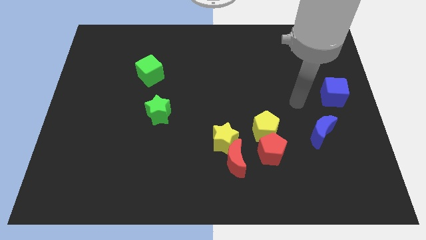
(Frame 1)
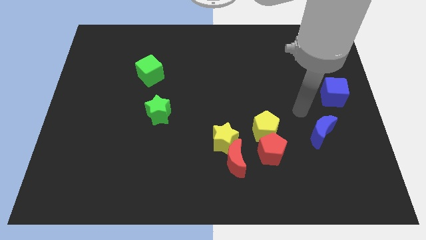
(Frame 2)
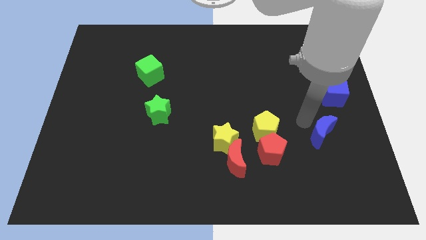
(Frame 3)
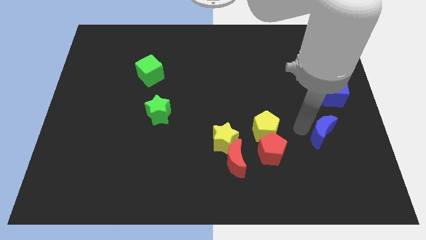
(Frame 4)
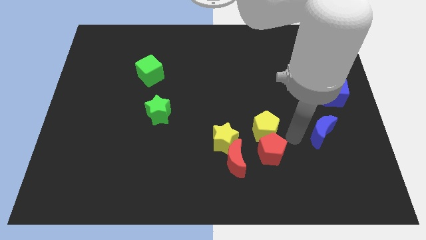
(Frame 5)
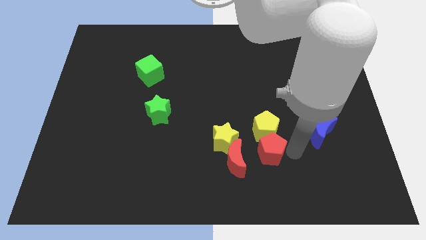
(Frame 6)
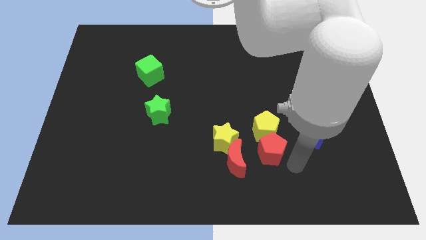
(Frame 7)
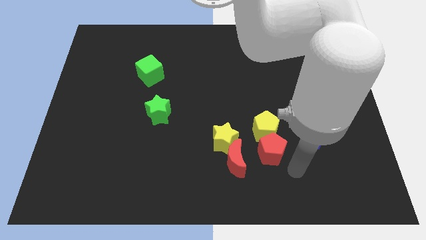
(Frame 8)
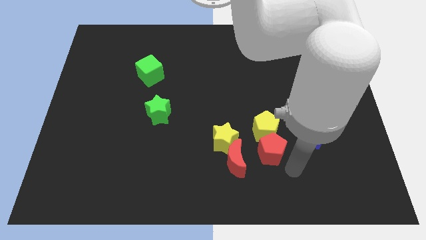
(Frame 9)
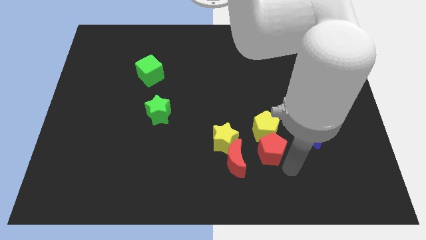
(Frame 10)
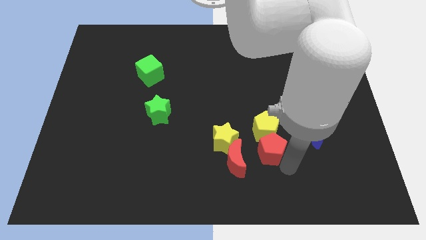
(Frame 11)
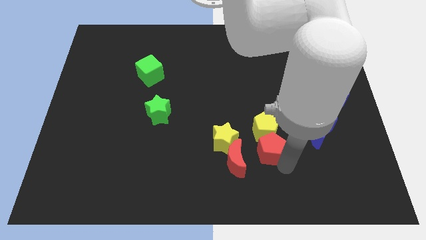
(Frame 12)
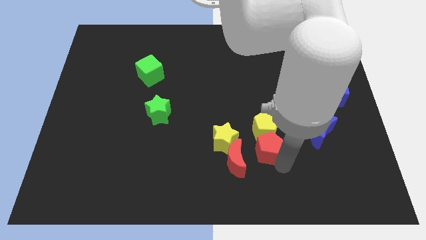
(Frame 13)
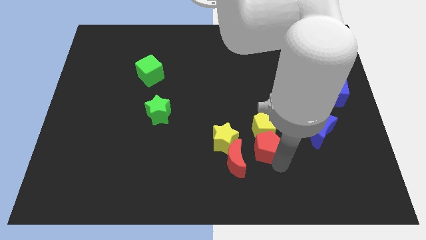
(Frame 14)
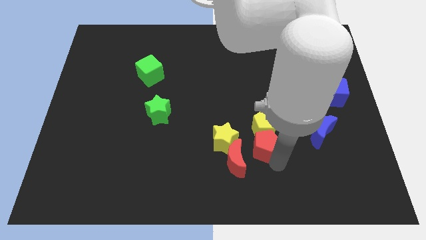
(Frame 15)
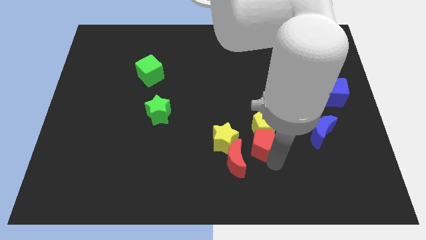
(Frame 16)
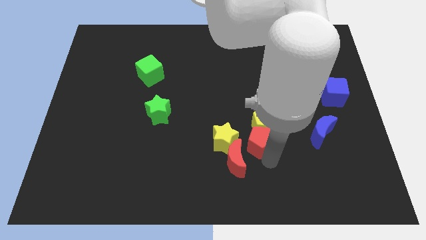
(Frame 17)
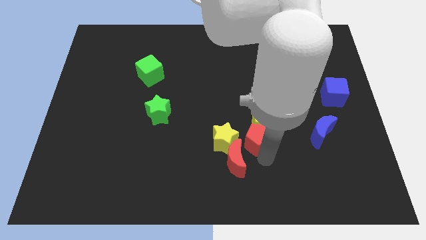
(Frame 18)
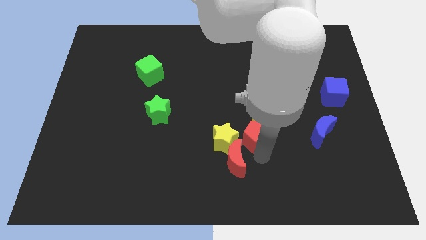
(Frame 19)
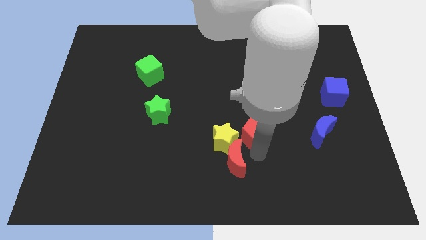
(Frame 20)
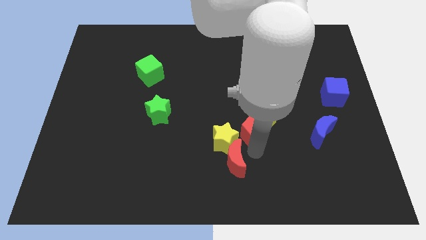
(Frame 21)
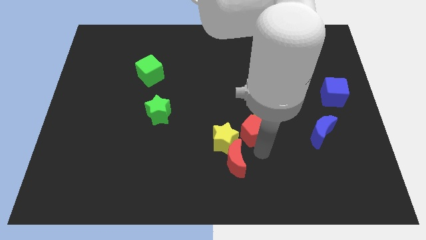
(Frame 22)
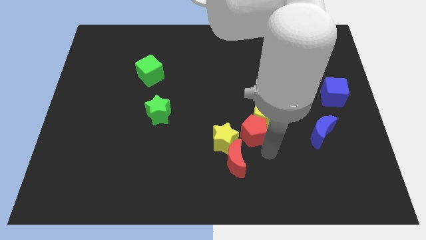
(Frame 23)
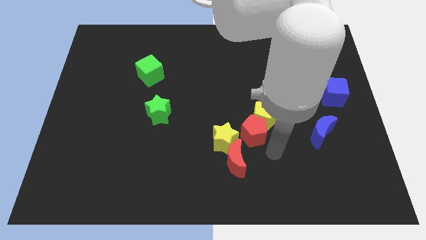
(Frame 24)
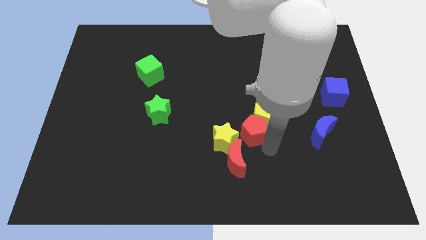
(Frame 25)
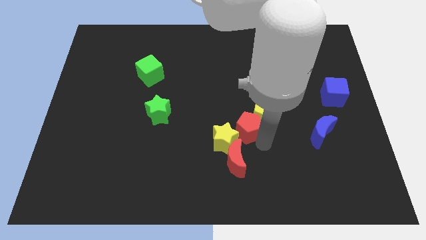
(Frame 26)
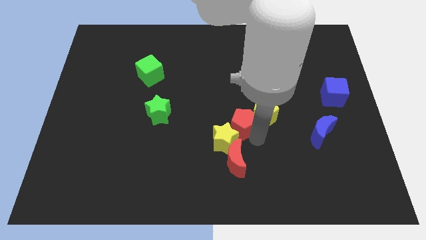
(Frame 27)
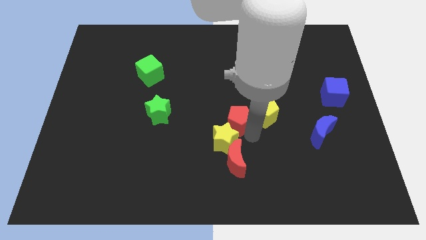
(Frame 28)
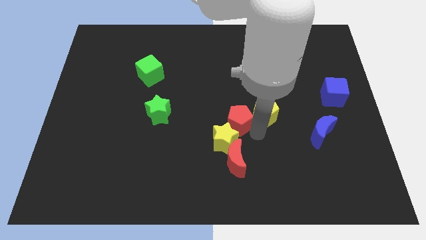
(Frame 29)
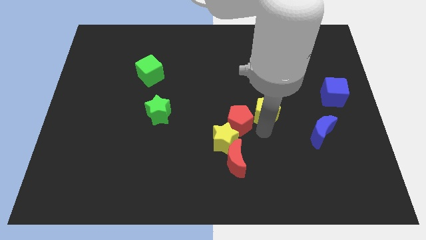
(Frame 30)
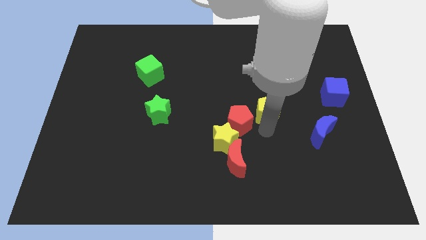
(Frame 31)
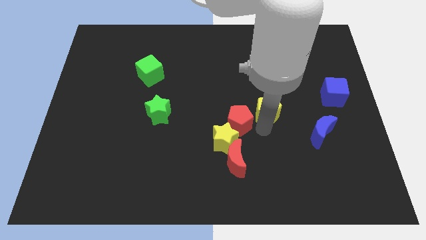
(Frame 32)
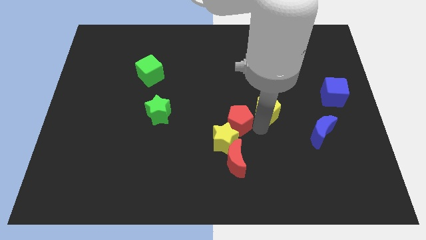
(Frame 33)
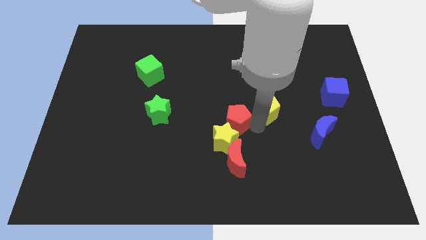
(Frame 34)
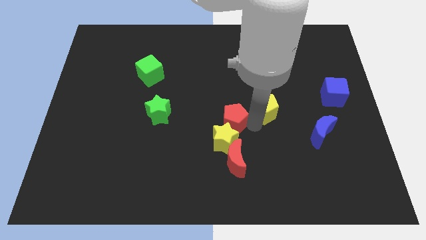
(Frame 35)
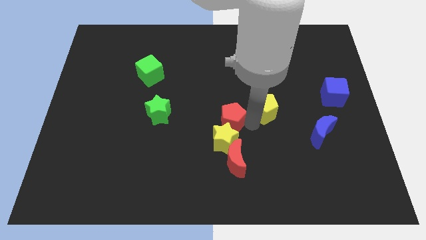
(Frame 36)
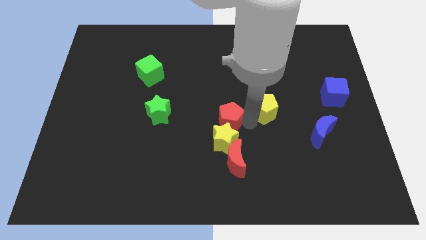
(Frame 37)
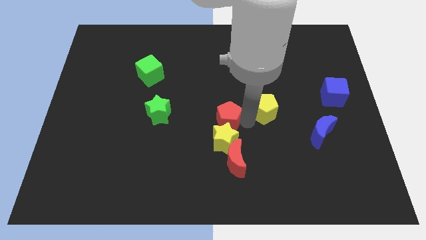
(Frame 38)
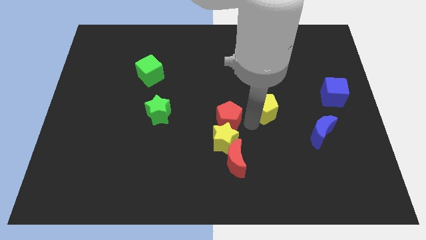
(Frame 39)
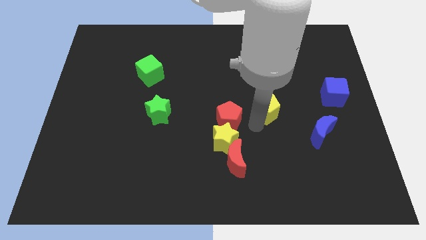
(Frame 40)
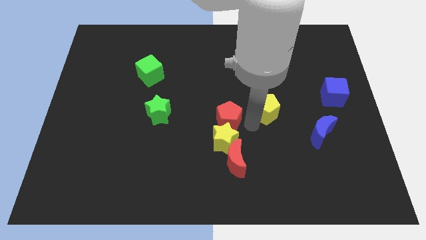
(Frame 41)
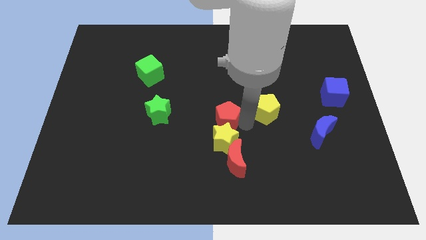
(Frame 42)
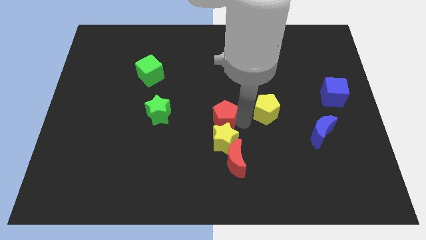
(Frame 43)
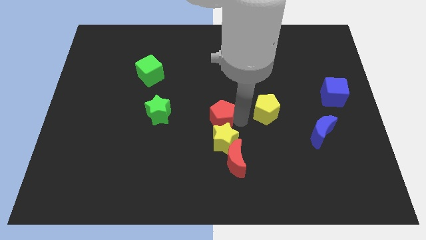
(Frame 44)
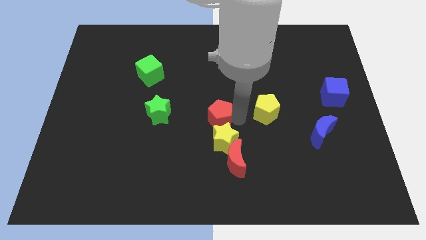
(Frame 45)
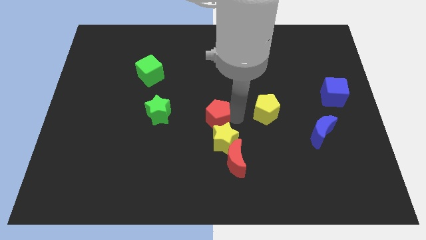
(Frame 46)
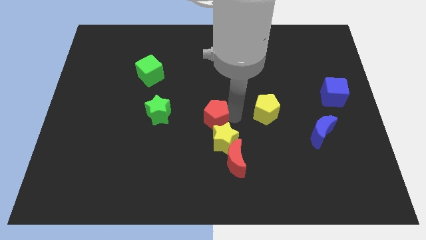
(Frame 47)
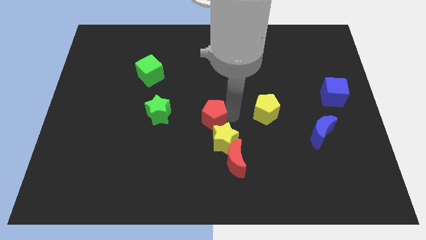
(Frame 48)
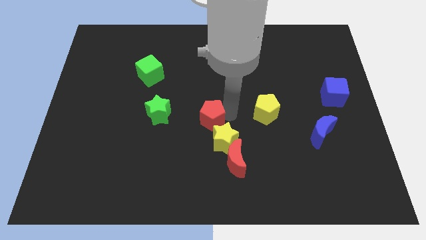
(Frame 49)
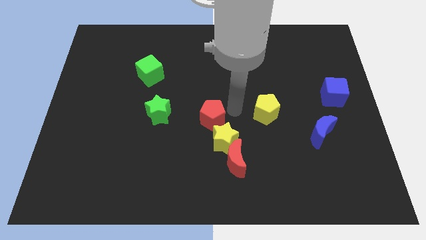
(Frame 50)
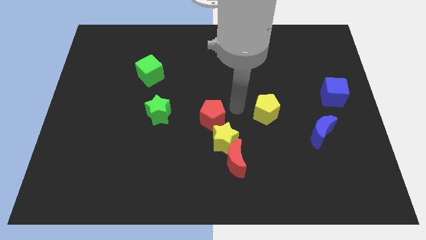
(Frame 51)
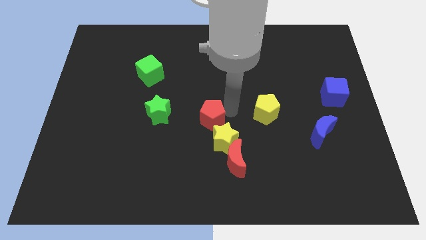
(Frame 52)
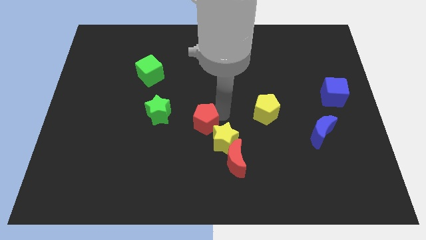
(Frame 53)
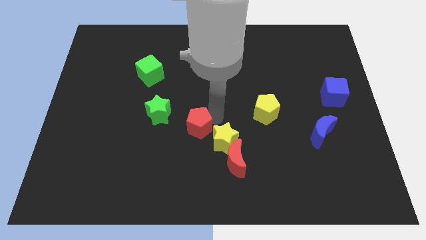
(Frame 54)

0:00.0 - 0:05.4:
slide the red pentagon diagonally down and to the right of the green star

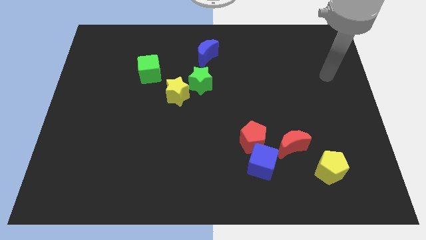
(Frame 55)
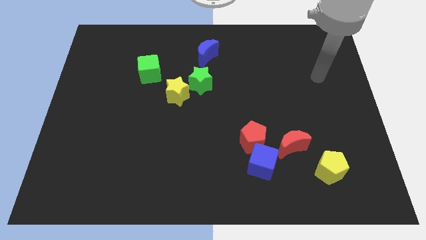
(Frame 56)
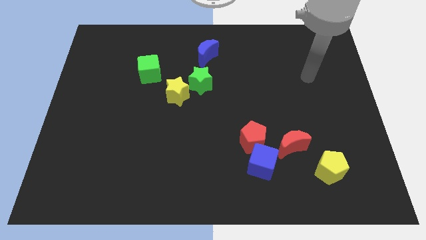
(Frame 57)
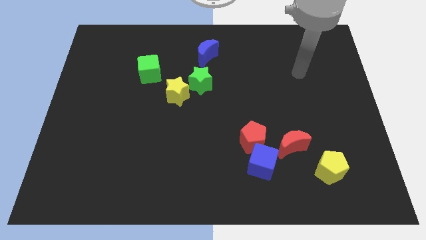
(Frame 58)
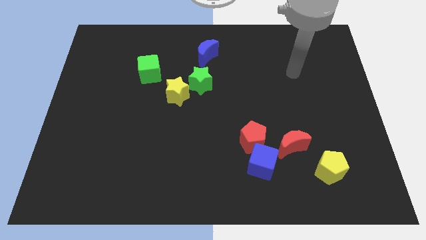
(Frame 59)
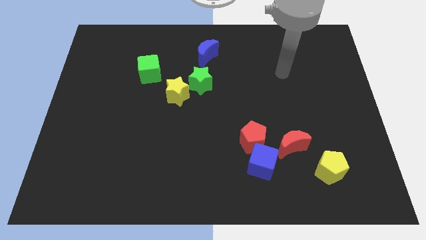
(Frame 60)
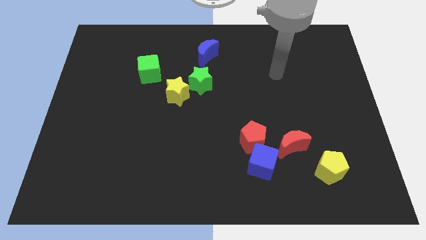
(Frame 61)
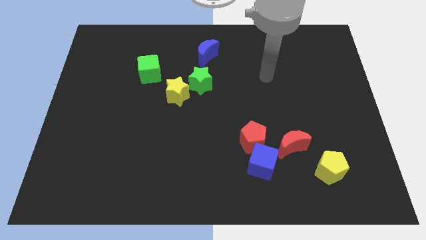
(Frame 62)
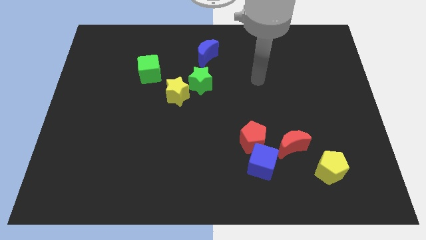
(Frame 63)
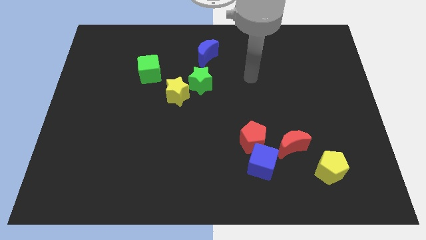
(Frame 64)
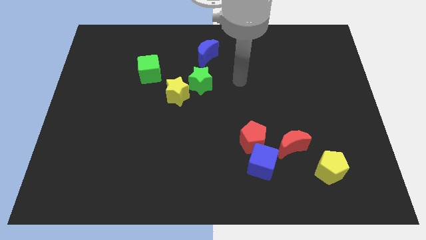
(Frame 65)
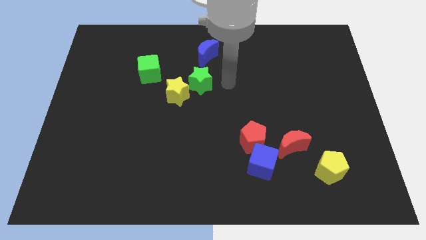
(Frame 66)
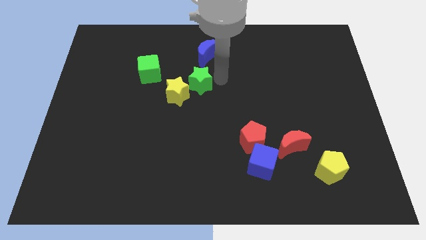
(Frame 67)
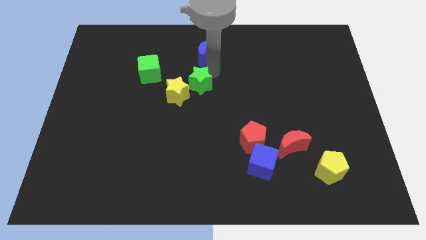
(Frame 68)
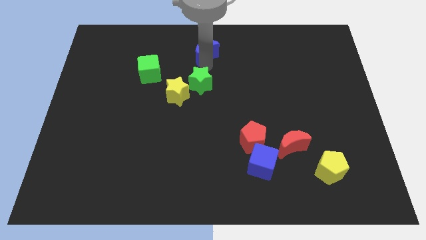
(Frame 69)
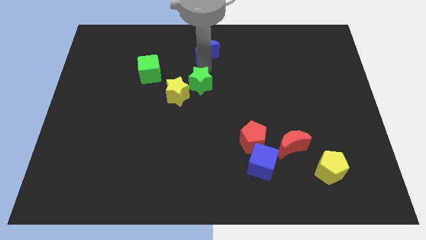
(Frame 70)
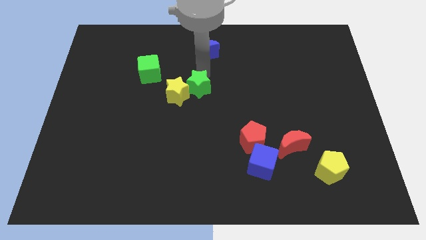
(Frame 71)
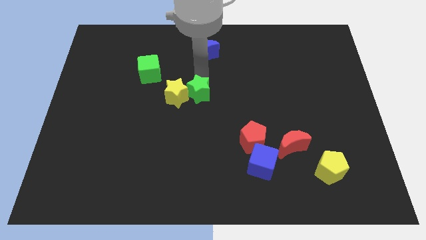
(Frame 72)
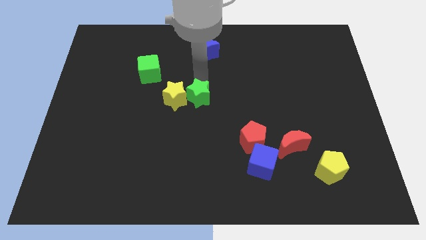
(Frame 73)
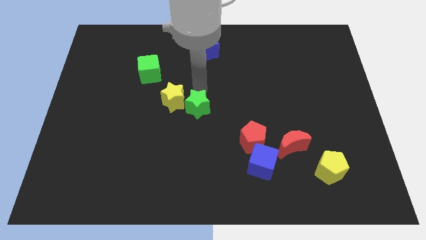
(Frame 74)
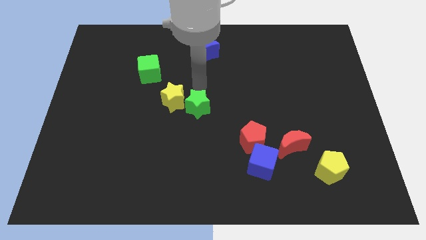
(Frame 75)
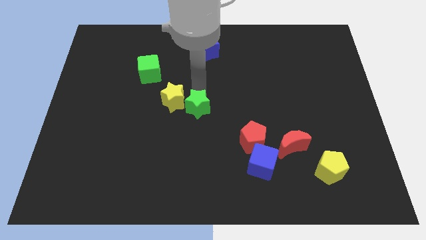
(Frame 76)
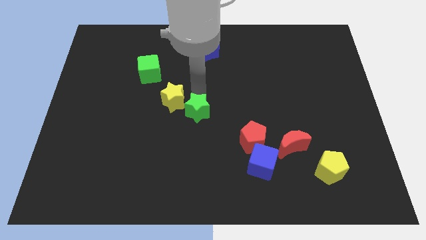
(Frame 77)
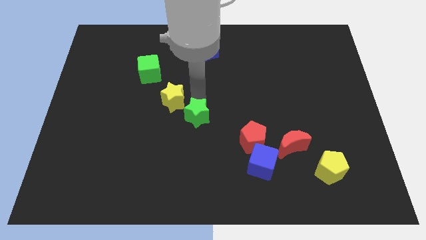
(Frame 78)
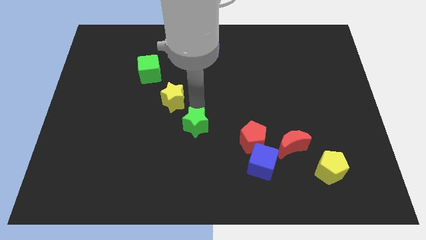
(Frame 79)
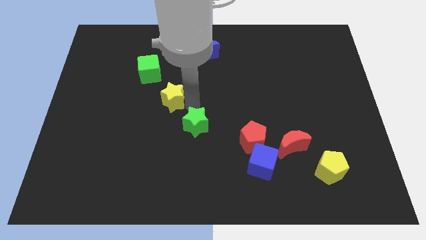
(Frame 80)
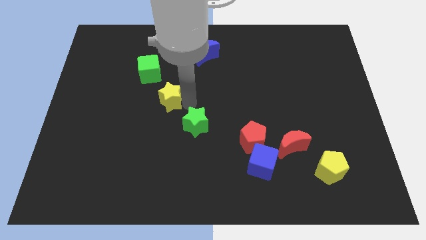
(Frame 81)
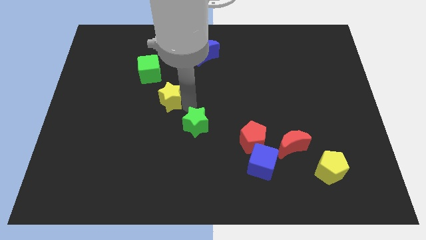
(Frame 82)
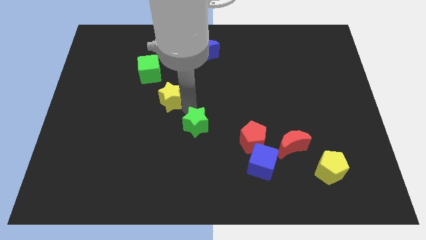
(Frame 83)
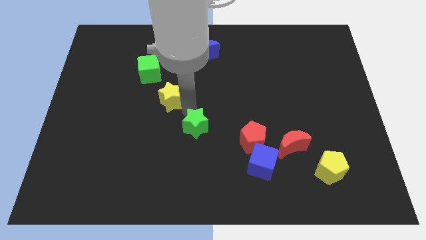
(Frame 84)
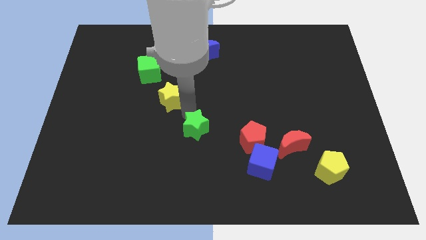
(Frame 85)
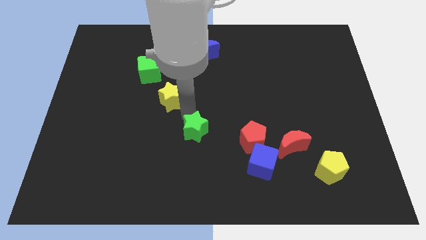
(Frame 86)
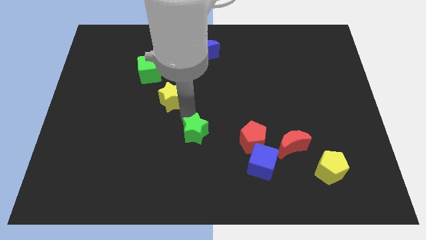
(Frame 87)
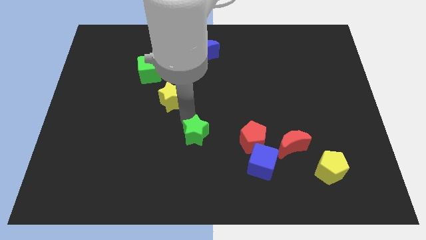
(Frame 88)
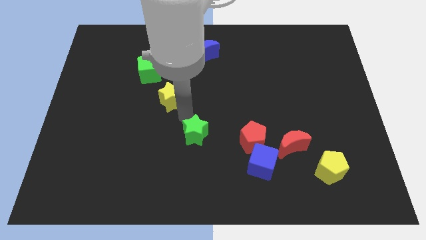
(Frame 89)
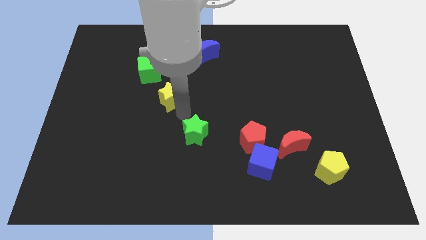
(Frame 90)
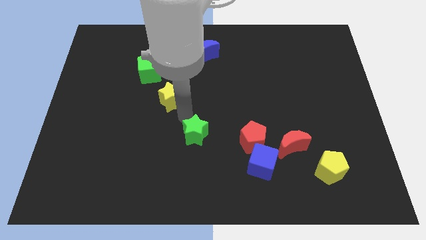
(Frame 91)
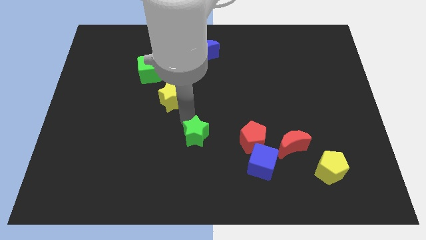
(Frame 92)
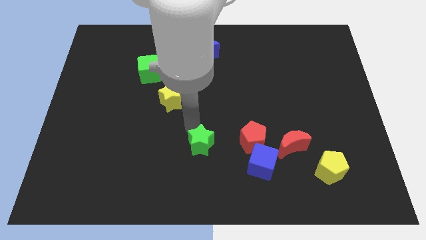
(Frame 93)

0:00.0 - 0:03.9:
push the green star to the left of the blue cube
